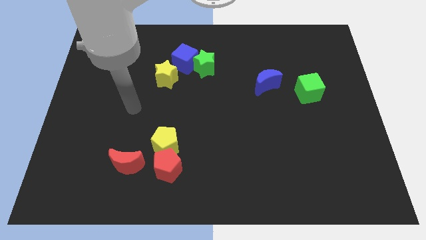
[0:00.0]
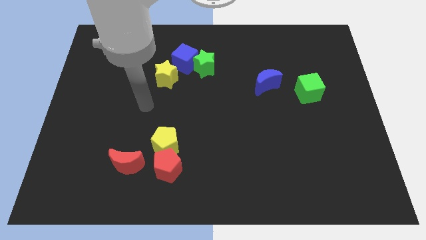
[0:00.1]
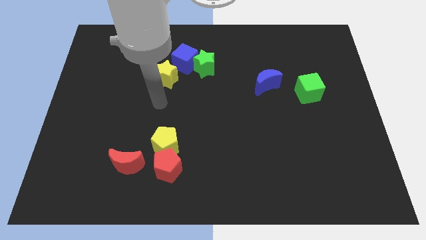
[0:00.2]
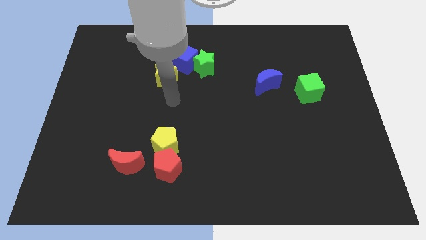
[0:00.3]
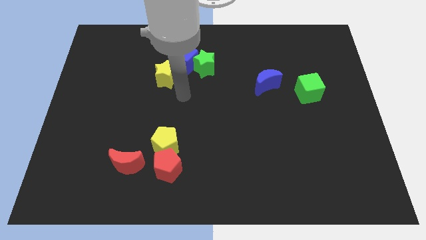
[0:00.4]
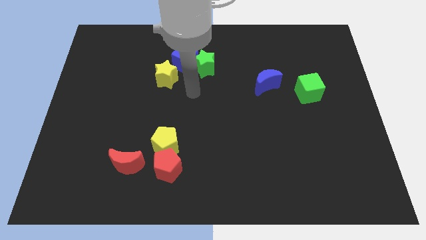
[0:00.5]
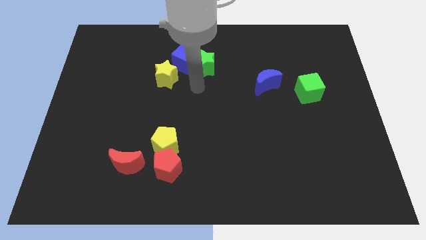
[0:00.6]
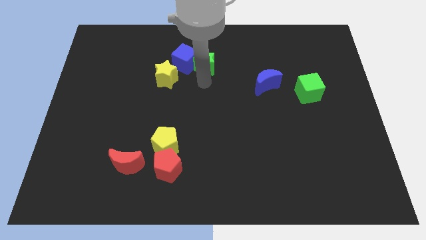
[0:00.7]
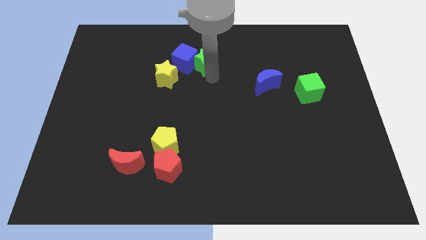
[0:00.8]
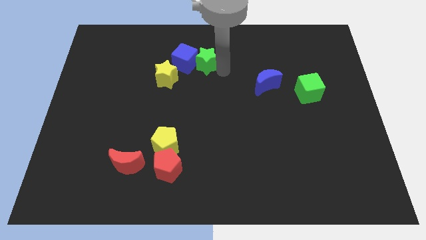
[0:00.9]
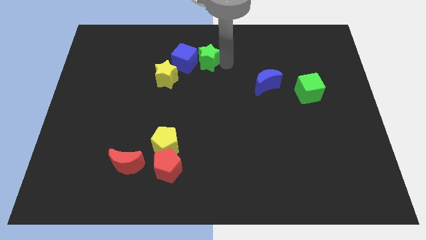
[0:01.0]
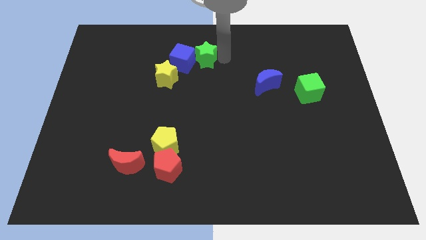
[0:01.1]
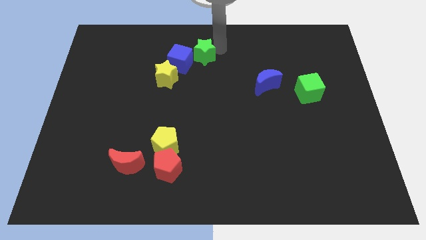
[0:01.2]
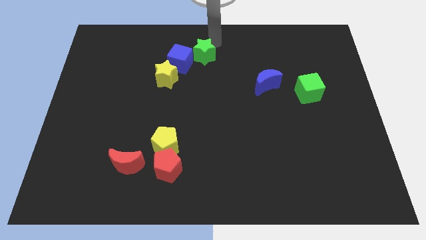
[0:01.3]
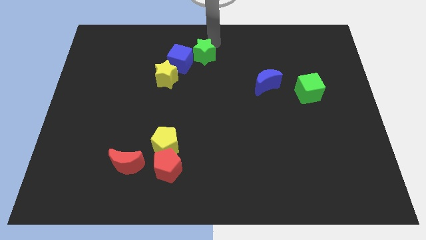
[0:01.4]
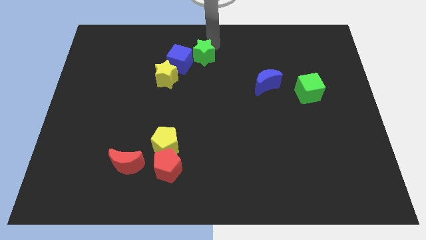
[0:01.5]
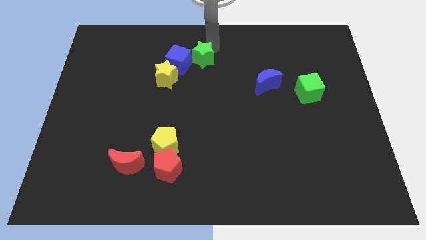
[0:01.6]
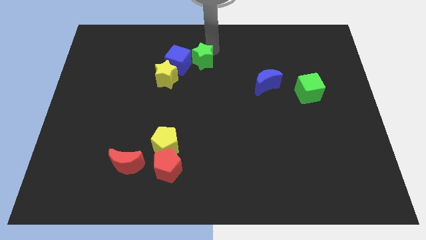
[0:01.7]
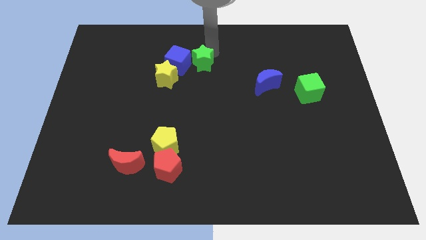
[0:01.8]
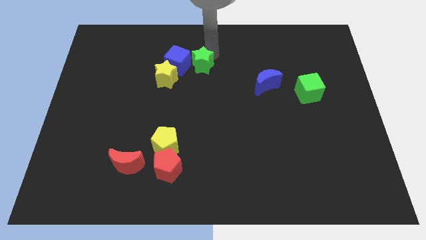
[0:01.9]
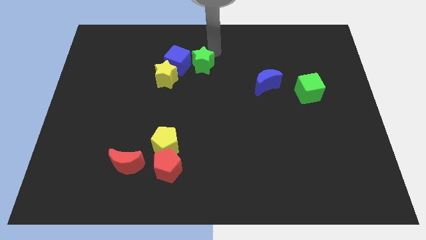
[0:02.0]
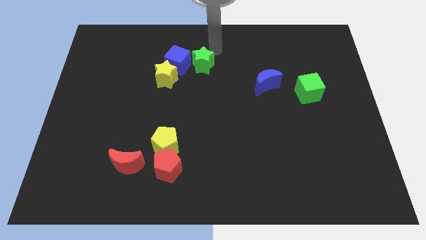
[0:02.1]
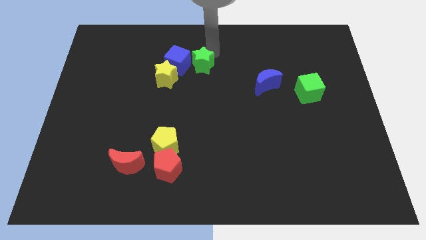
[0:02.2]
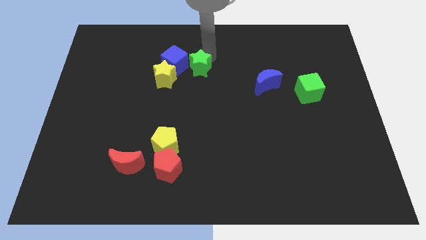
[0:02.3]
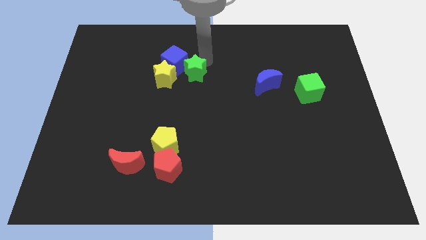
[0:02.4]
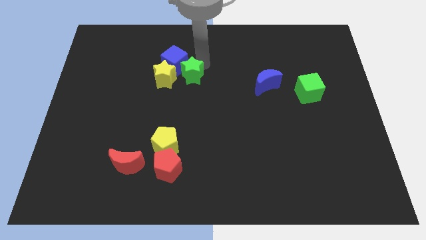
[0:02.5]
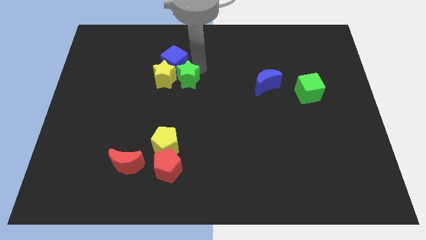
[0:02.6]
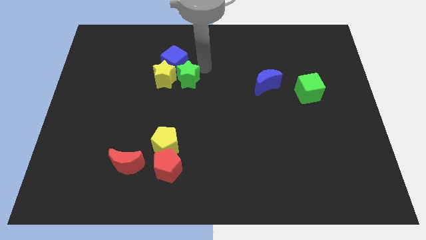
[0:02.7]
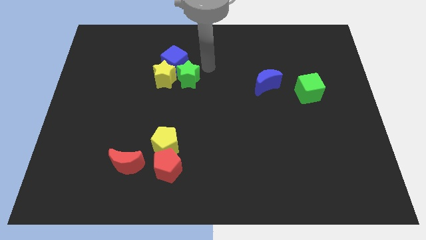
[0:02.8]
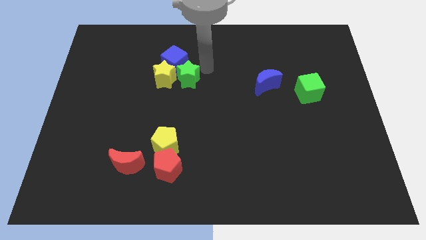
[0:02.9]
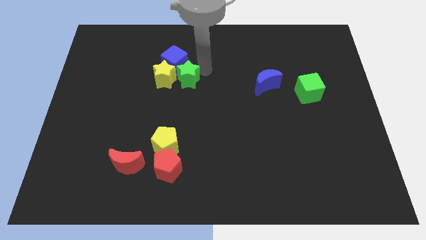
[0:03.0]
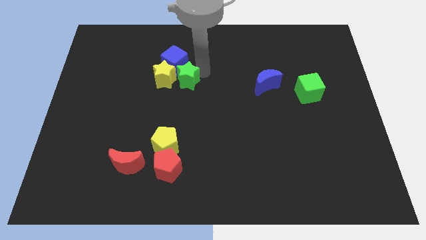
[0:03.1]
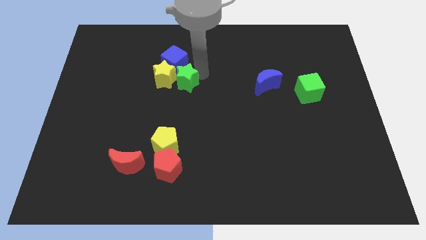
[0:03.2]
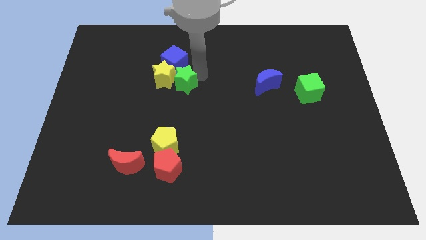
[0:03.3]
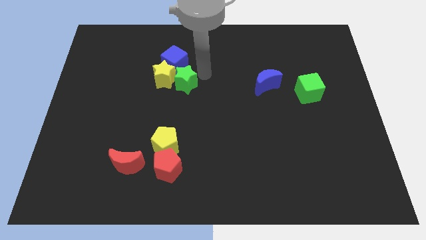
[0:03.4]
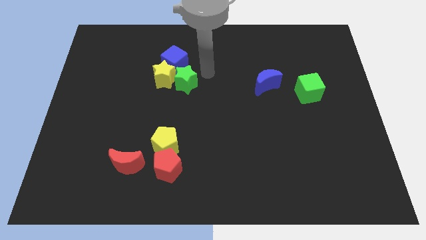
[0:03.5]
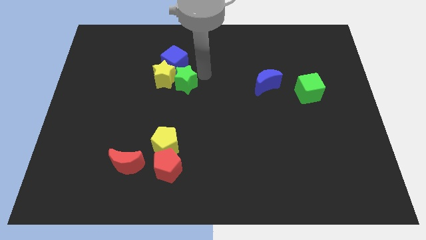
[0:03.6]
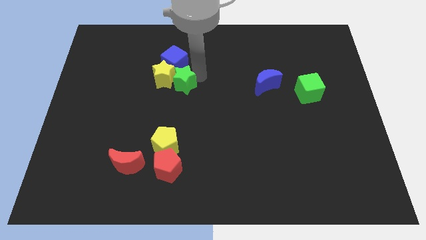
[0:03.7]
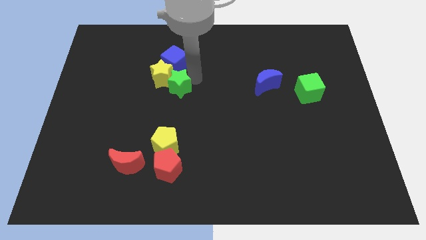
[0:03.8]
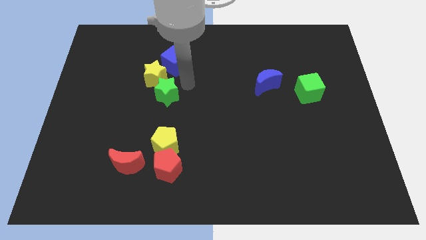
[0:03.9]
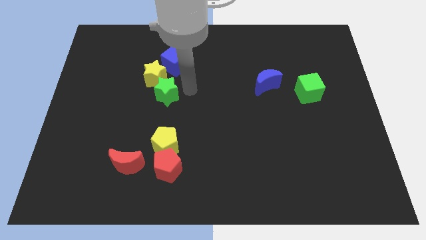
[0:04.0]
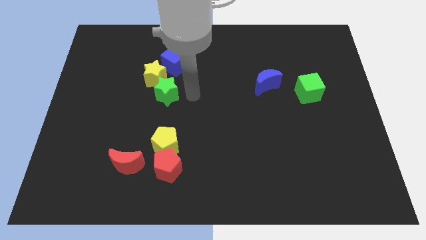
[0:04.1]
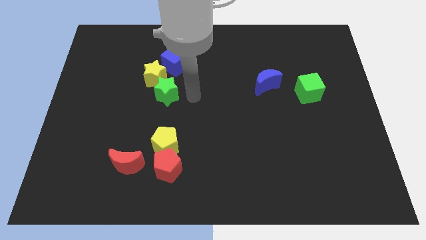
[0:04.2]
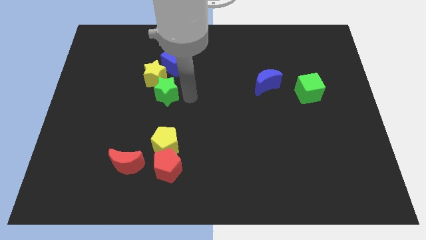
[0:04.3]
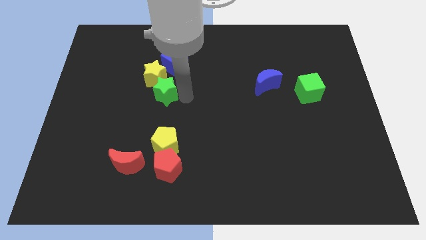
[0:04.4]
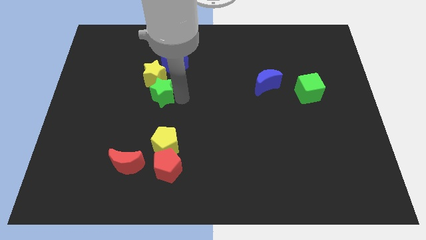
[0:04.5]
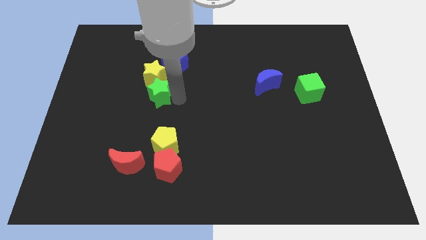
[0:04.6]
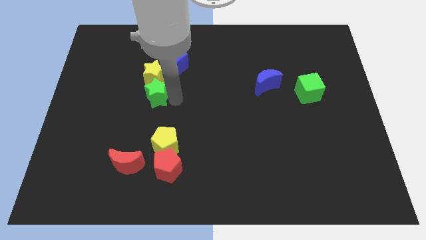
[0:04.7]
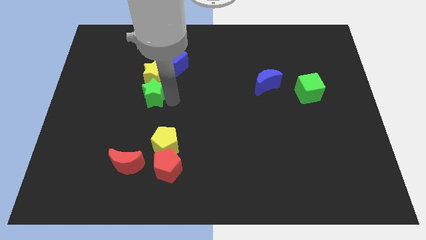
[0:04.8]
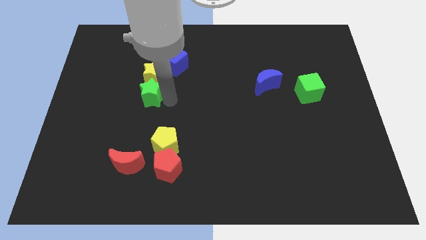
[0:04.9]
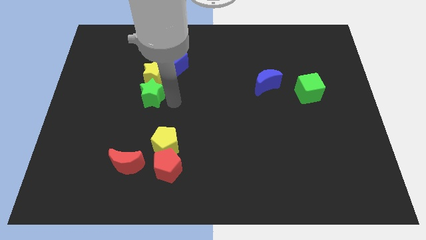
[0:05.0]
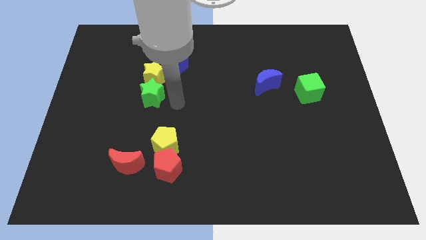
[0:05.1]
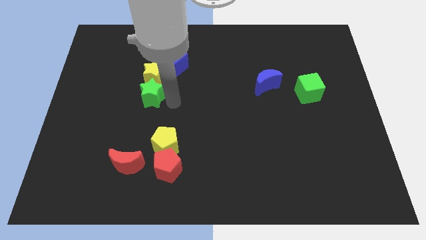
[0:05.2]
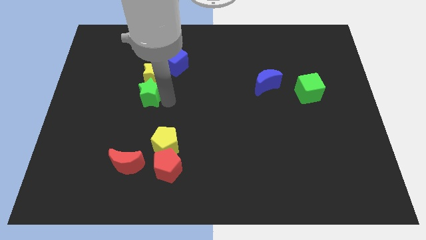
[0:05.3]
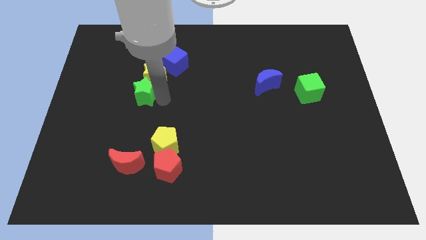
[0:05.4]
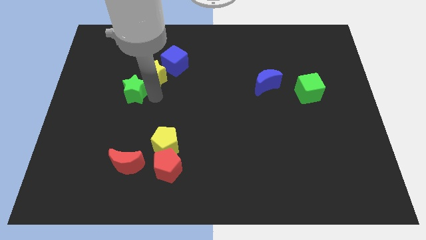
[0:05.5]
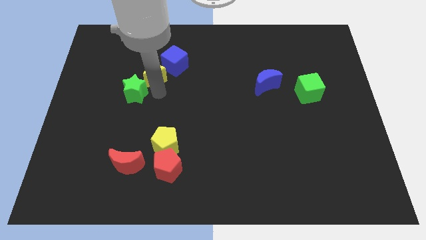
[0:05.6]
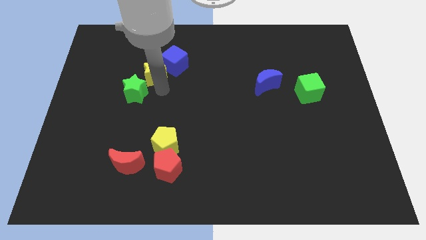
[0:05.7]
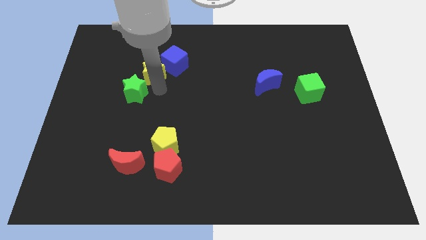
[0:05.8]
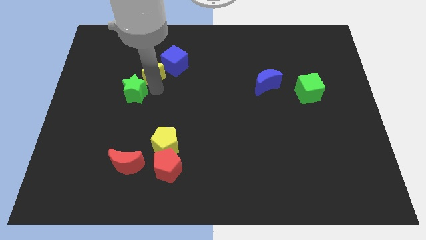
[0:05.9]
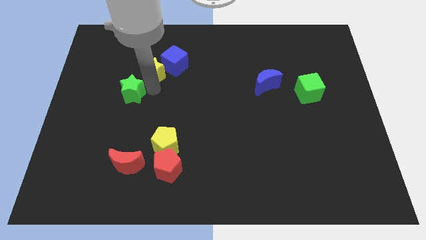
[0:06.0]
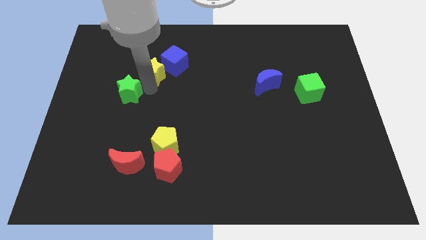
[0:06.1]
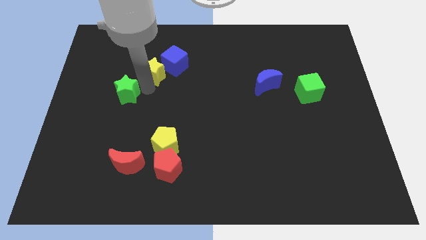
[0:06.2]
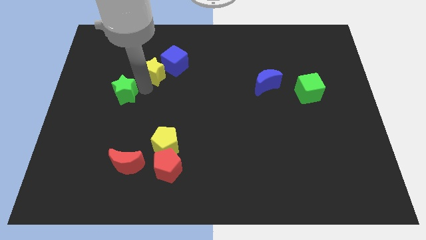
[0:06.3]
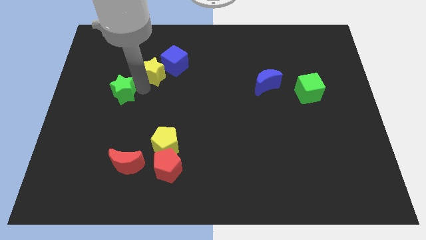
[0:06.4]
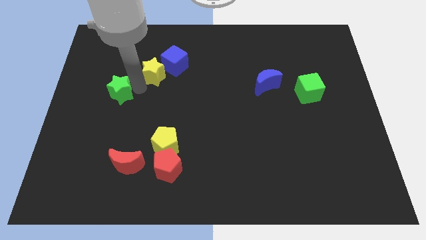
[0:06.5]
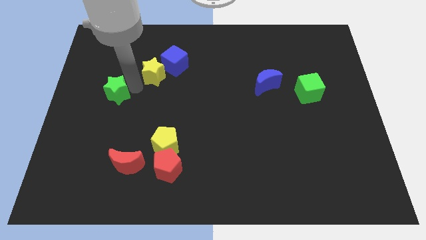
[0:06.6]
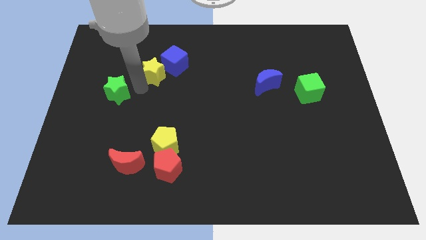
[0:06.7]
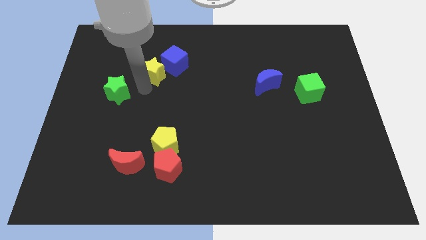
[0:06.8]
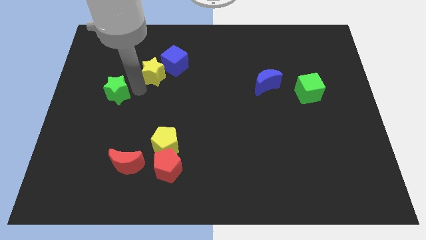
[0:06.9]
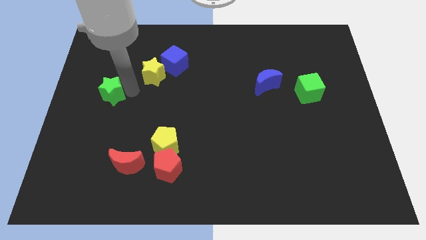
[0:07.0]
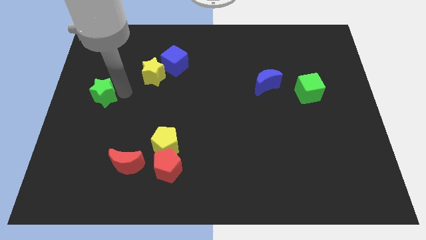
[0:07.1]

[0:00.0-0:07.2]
put the green star to the left side of the board
